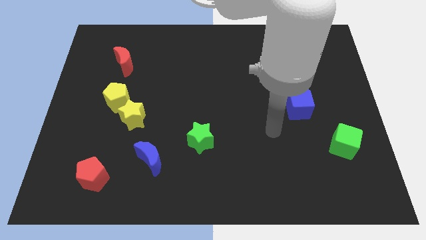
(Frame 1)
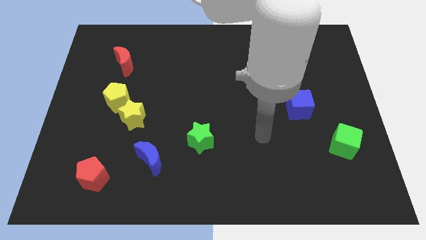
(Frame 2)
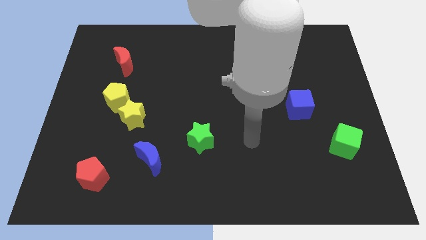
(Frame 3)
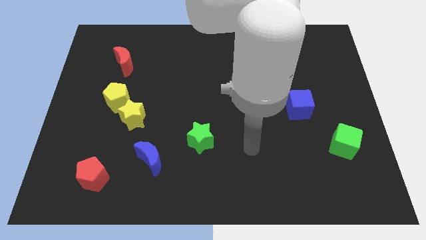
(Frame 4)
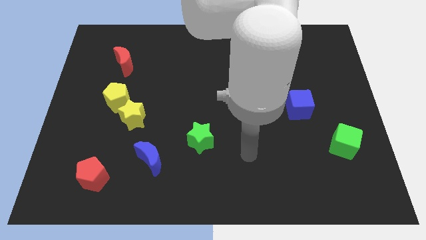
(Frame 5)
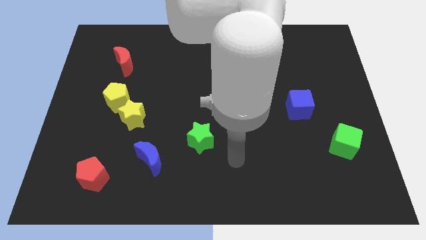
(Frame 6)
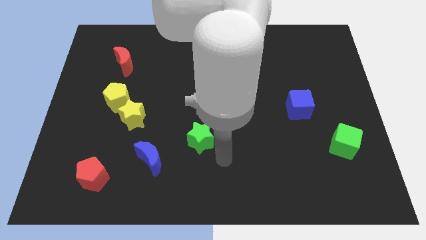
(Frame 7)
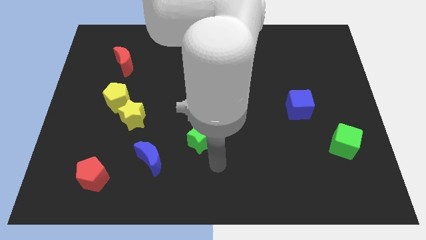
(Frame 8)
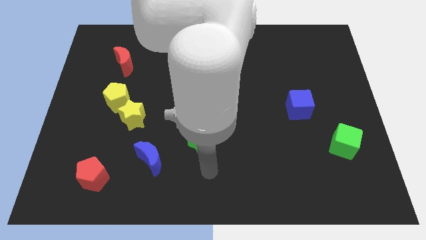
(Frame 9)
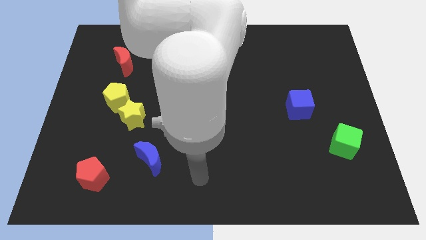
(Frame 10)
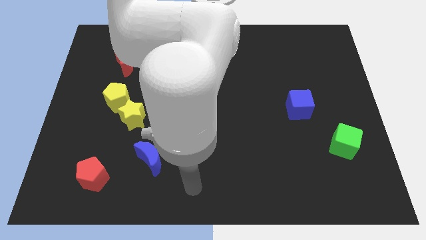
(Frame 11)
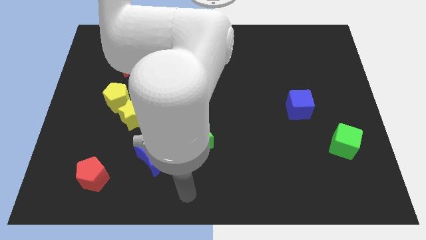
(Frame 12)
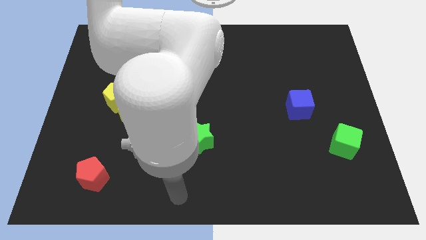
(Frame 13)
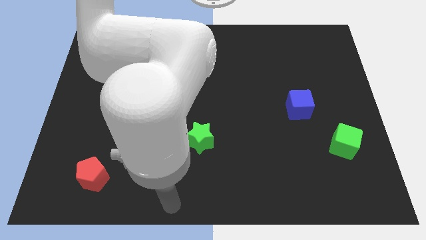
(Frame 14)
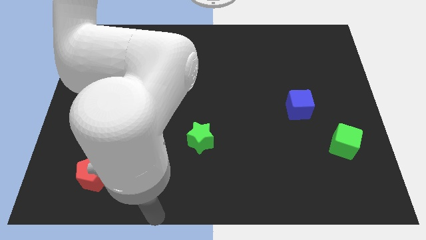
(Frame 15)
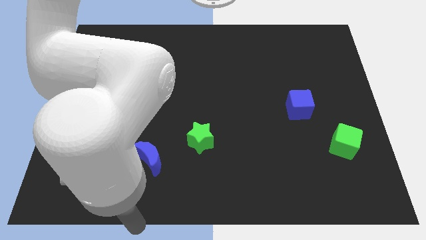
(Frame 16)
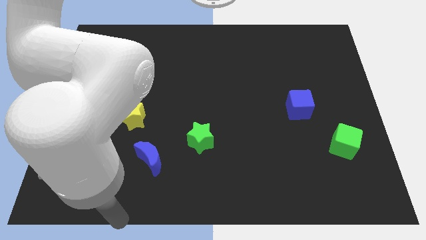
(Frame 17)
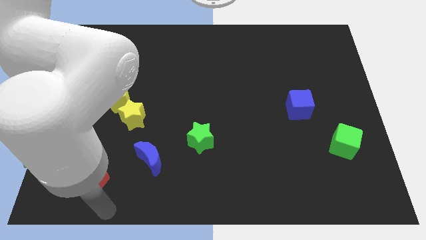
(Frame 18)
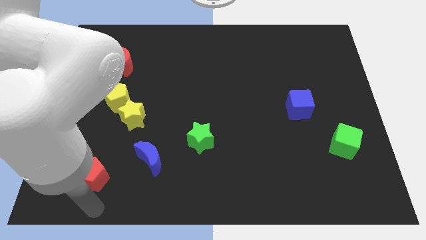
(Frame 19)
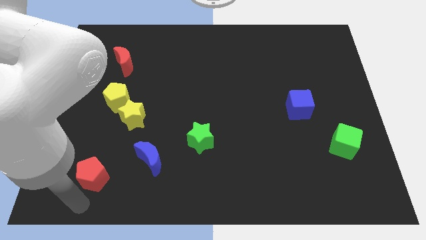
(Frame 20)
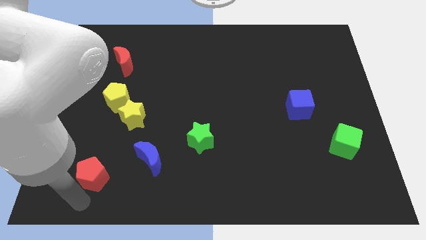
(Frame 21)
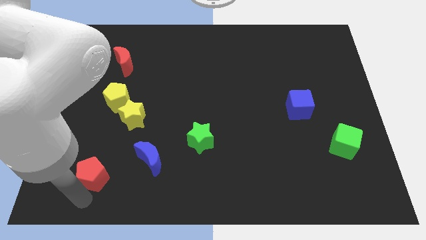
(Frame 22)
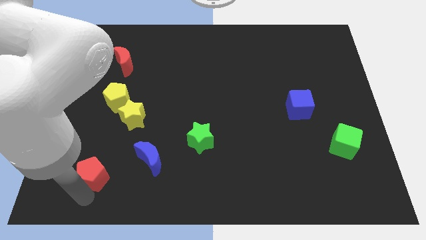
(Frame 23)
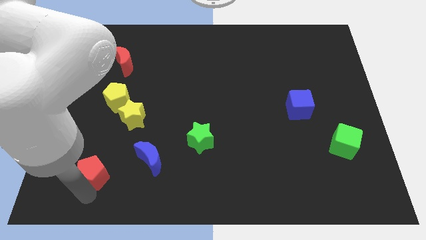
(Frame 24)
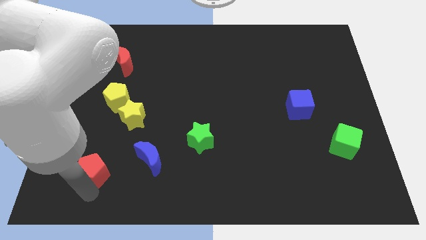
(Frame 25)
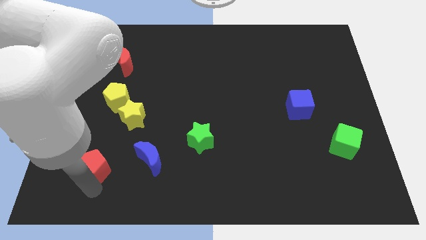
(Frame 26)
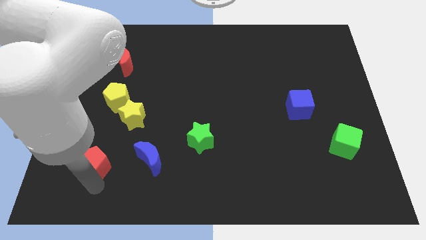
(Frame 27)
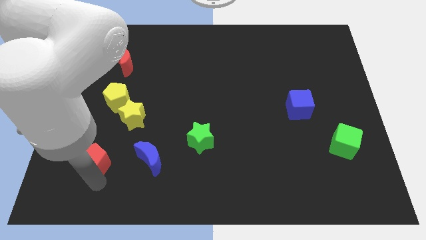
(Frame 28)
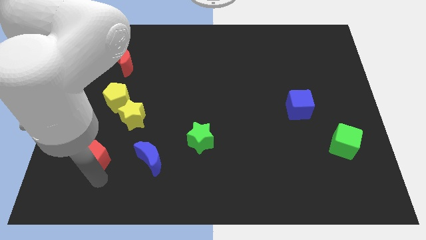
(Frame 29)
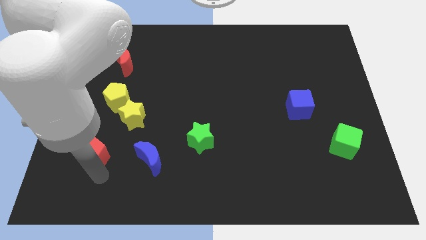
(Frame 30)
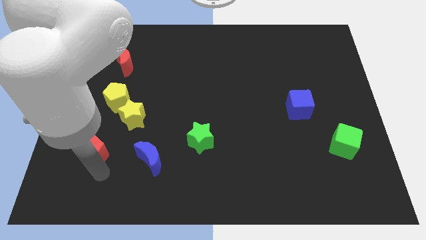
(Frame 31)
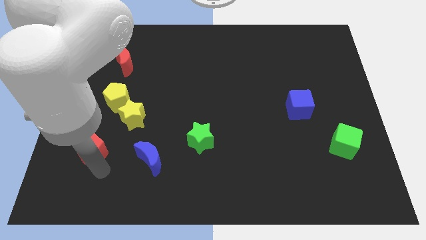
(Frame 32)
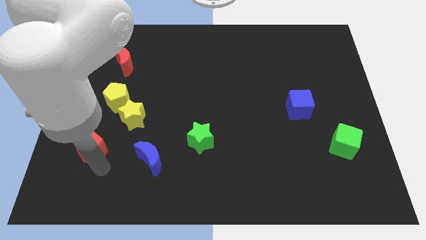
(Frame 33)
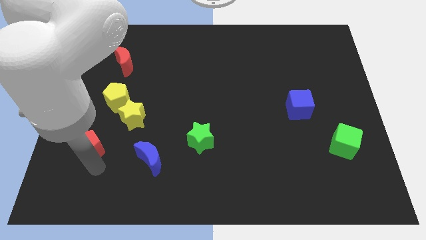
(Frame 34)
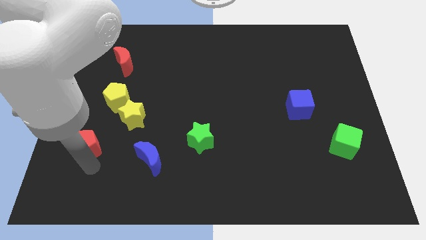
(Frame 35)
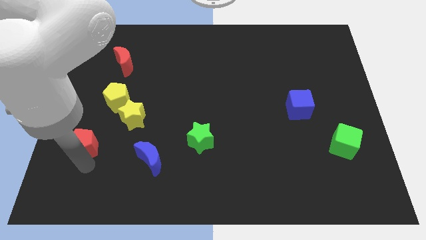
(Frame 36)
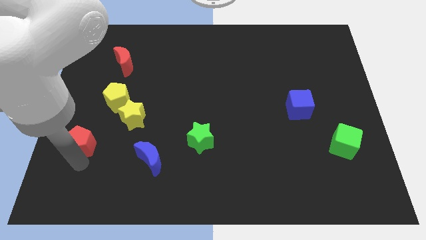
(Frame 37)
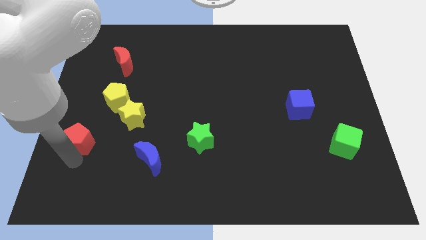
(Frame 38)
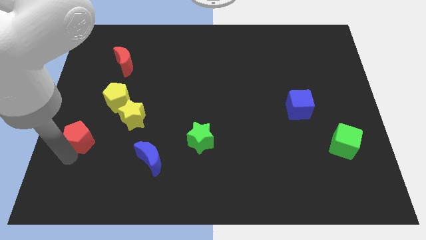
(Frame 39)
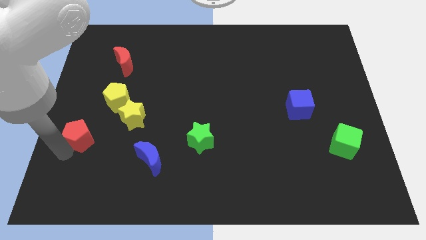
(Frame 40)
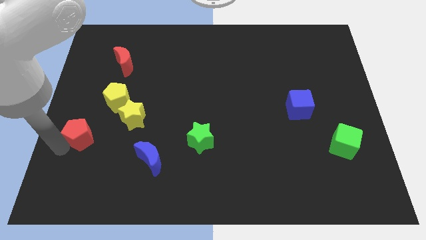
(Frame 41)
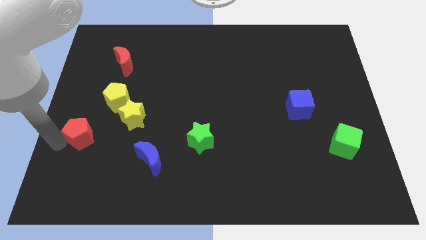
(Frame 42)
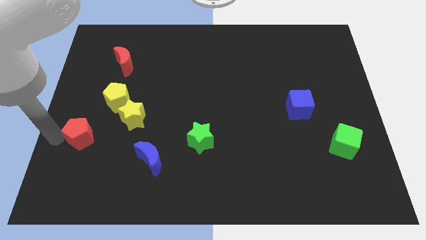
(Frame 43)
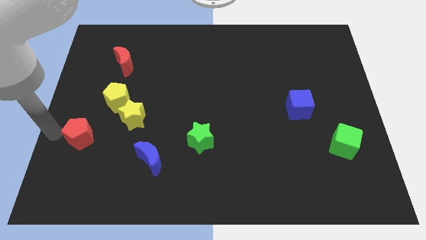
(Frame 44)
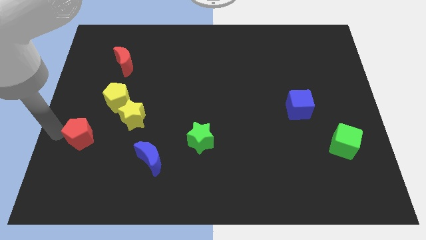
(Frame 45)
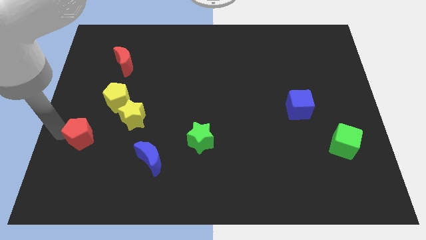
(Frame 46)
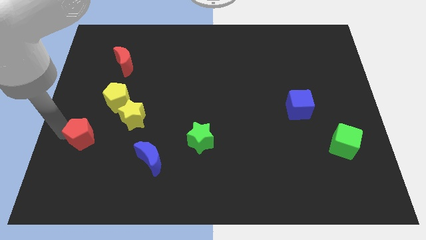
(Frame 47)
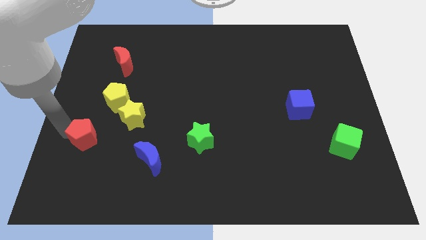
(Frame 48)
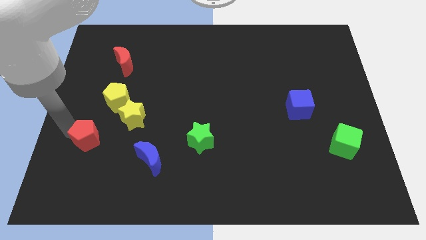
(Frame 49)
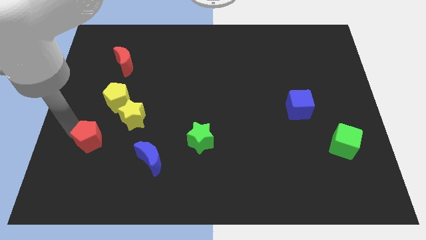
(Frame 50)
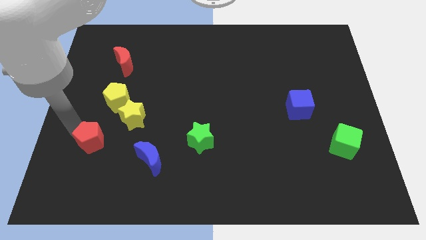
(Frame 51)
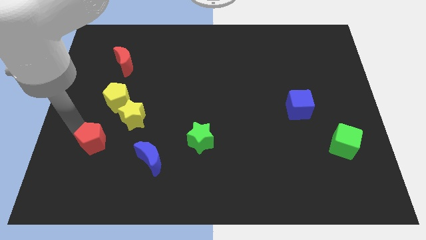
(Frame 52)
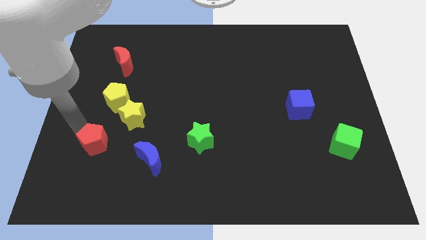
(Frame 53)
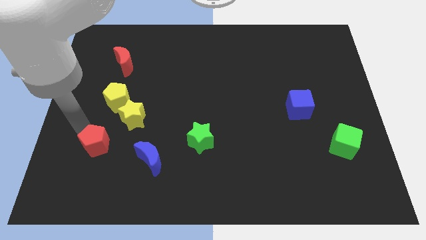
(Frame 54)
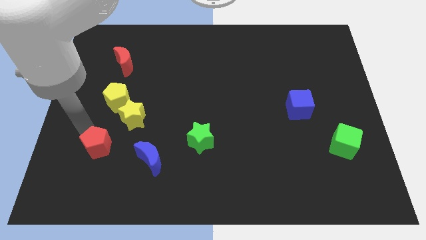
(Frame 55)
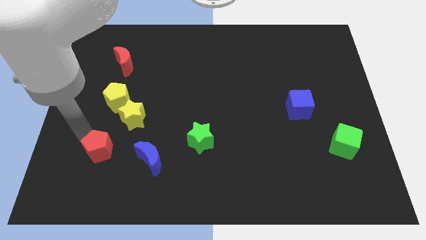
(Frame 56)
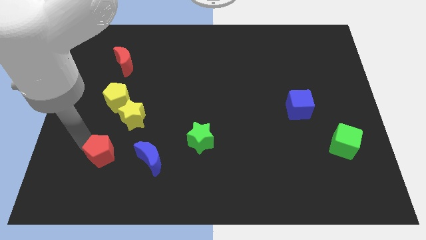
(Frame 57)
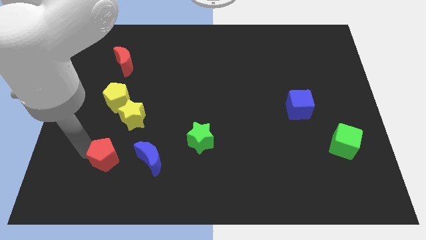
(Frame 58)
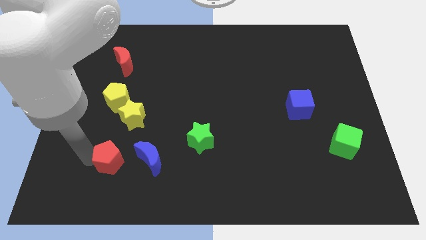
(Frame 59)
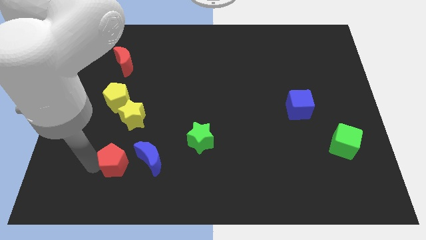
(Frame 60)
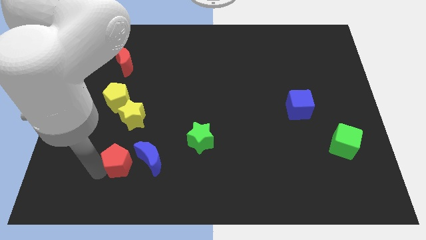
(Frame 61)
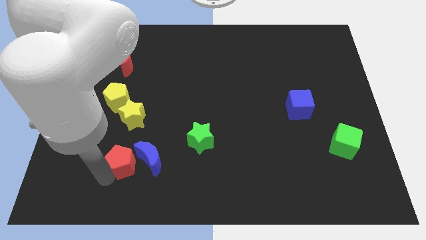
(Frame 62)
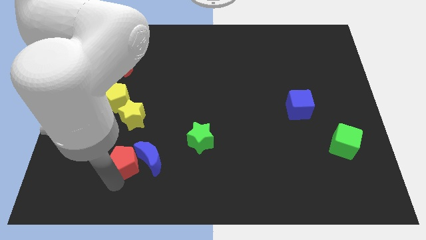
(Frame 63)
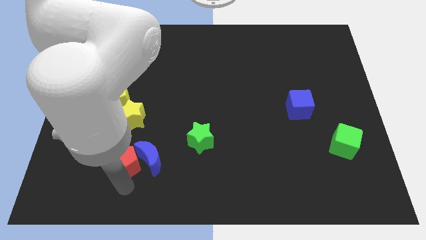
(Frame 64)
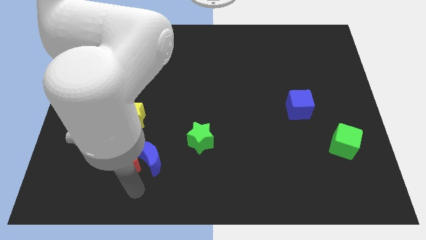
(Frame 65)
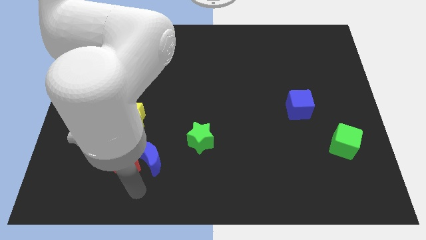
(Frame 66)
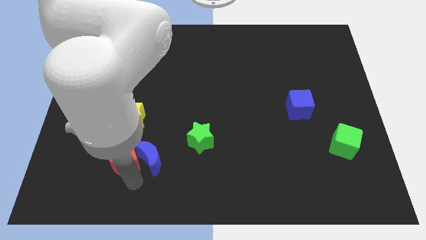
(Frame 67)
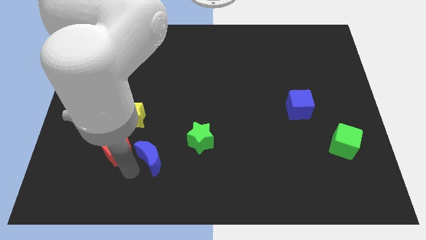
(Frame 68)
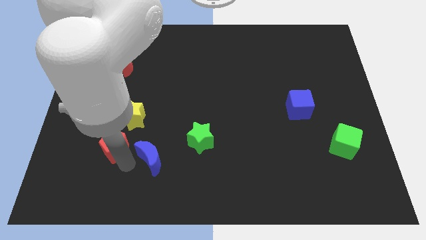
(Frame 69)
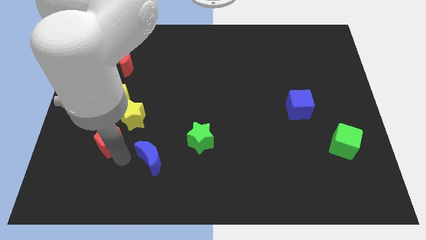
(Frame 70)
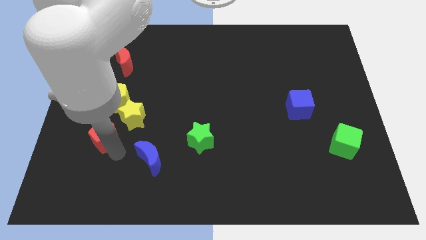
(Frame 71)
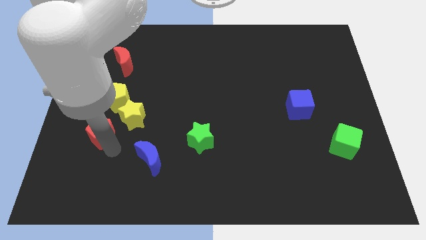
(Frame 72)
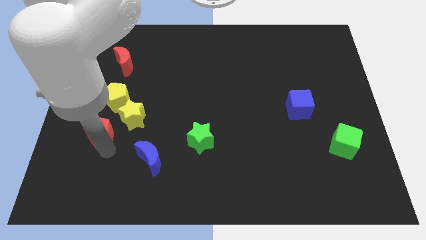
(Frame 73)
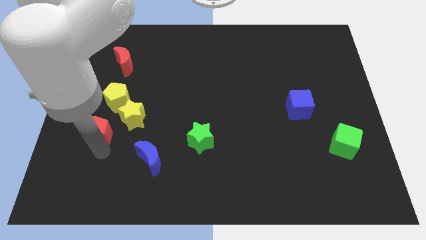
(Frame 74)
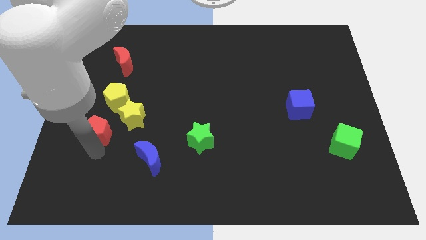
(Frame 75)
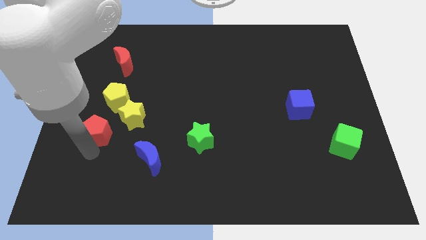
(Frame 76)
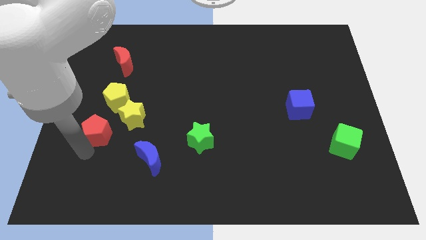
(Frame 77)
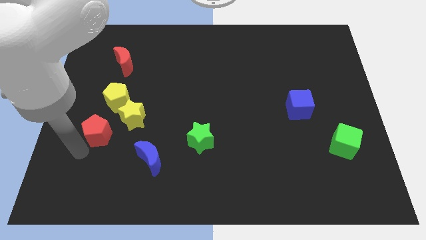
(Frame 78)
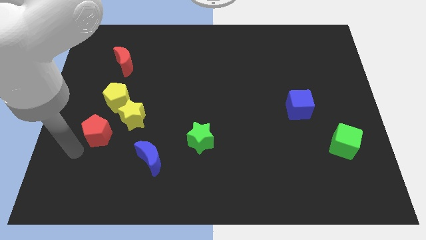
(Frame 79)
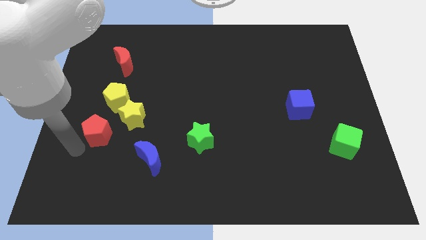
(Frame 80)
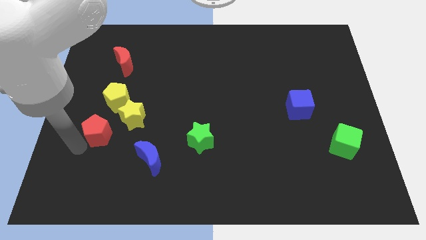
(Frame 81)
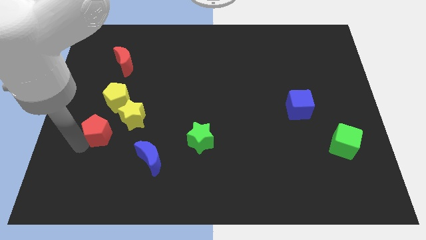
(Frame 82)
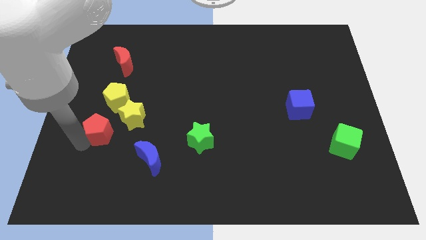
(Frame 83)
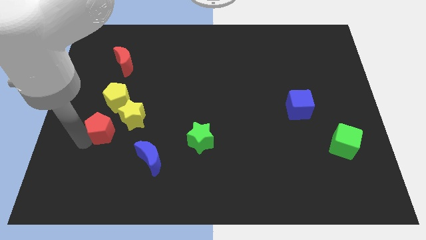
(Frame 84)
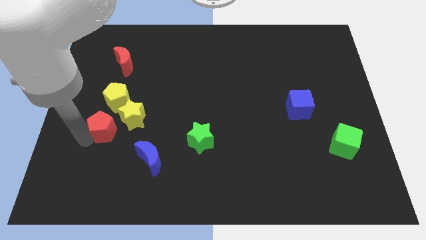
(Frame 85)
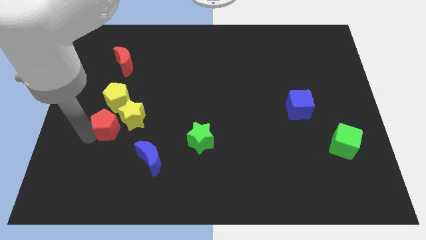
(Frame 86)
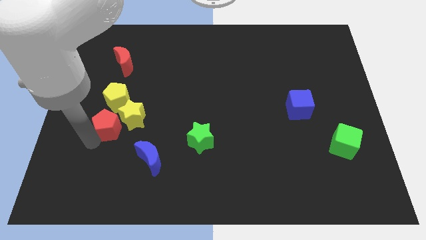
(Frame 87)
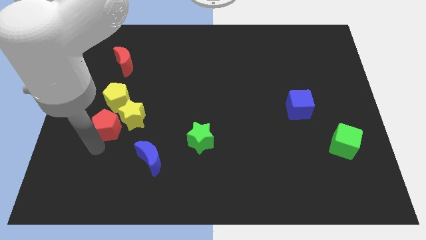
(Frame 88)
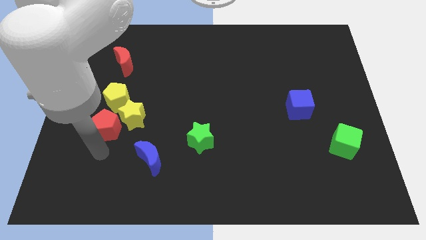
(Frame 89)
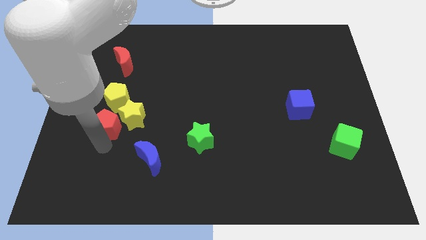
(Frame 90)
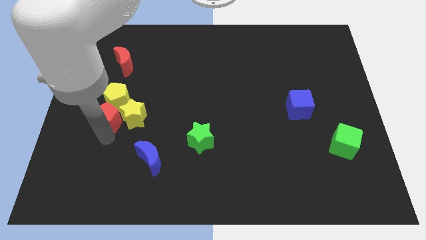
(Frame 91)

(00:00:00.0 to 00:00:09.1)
move the red pentagon to the yellow pentagon
